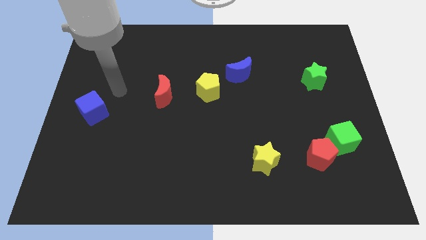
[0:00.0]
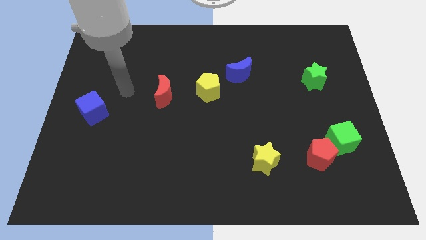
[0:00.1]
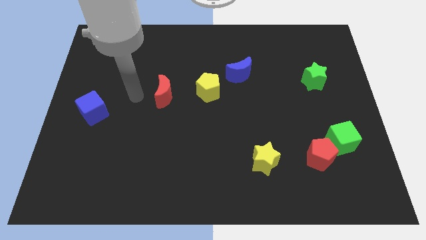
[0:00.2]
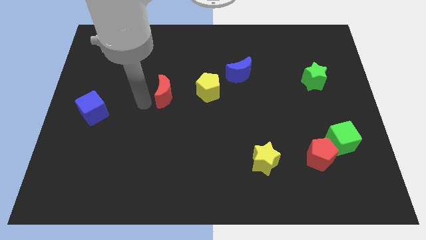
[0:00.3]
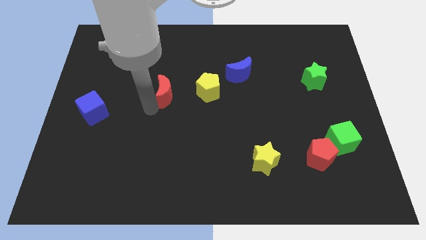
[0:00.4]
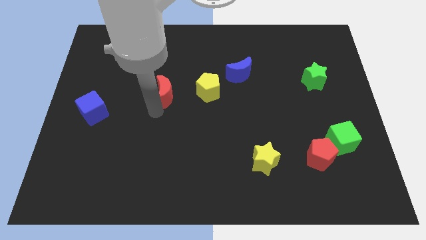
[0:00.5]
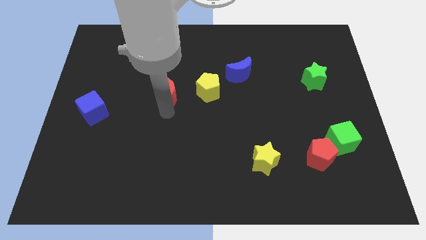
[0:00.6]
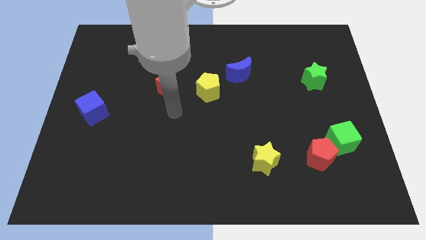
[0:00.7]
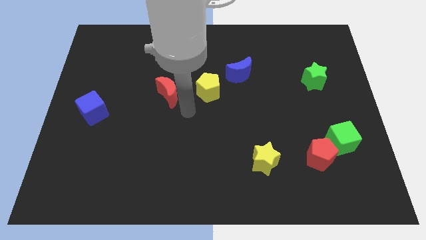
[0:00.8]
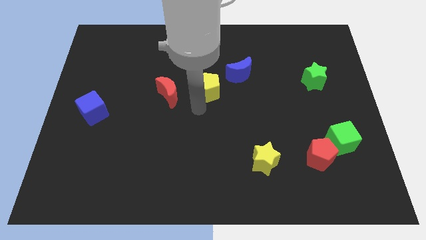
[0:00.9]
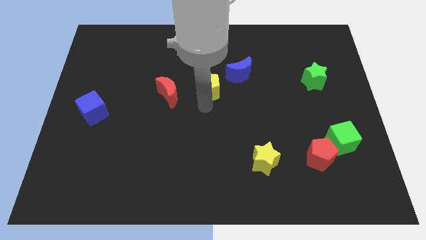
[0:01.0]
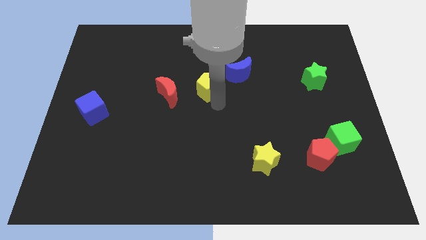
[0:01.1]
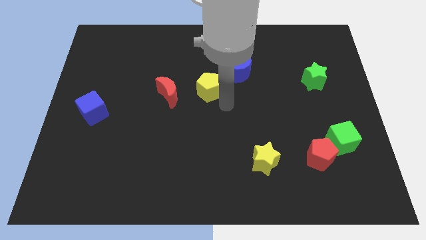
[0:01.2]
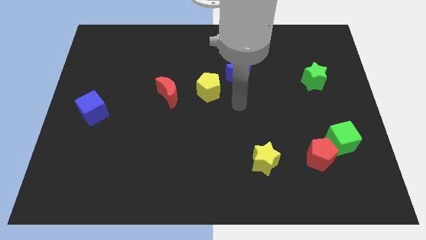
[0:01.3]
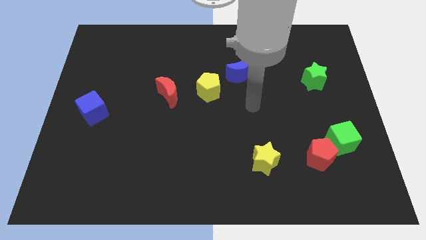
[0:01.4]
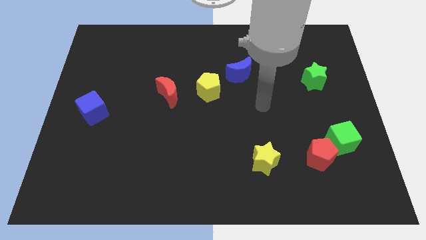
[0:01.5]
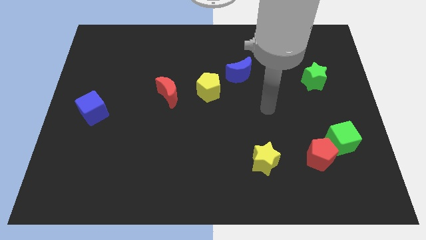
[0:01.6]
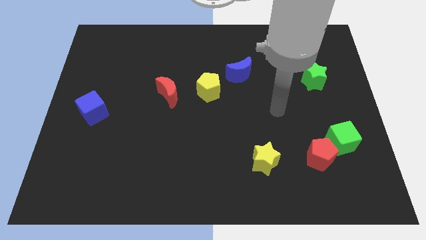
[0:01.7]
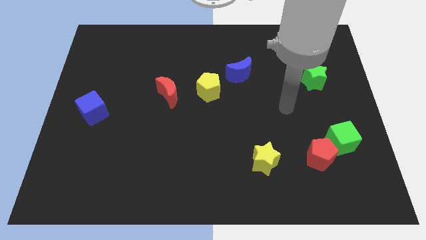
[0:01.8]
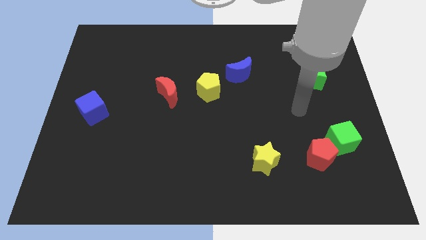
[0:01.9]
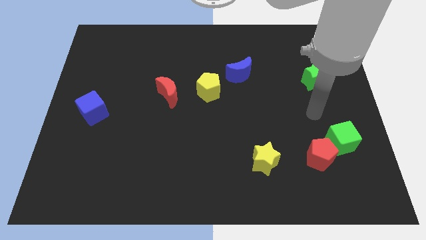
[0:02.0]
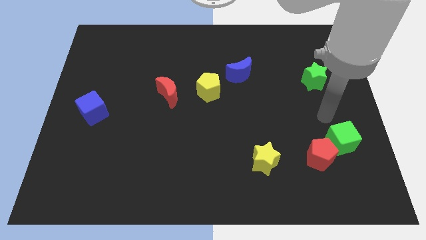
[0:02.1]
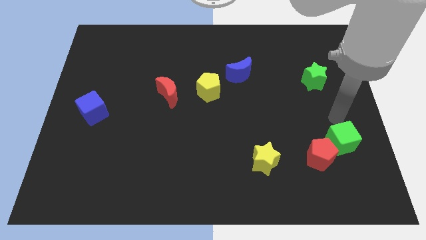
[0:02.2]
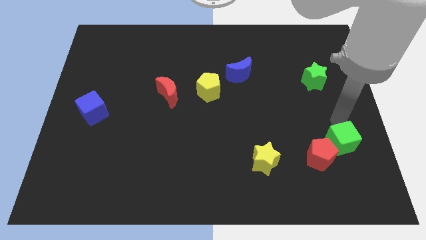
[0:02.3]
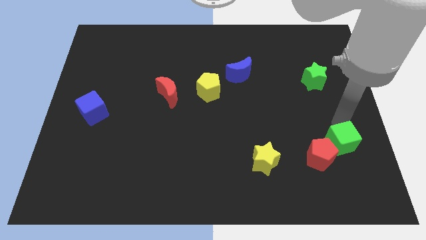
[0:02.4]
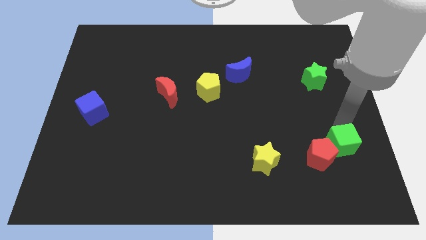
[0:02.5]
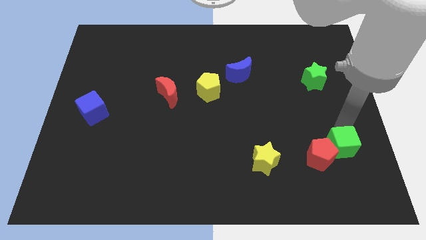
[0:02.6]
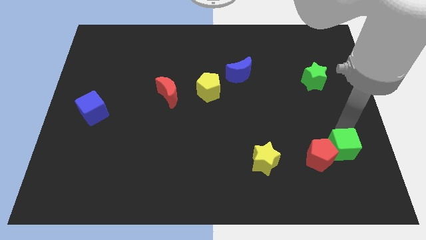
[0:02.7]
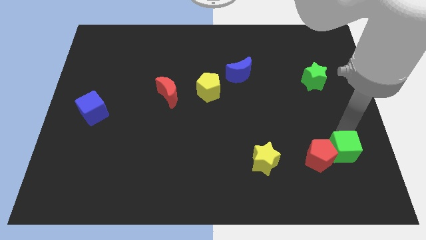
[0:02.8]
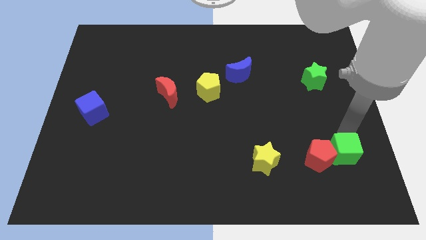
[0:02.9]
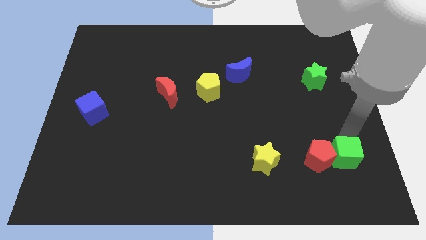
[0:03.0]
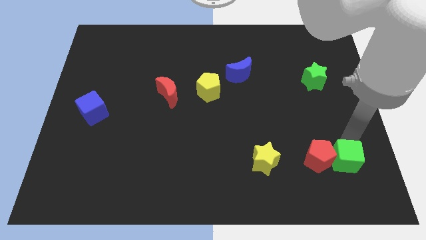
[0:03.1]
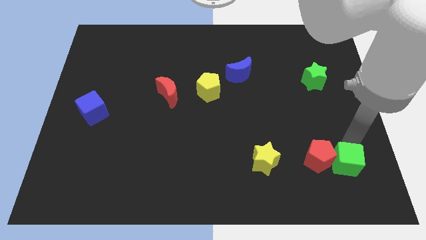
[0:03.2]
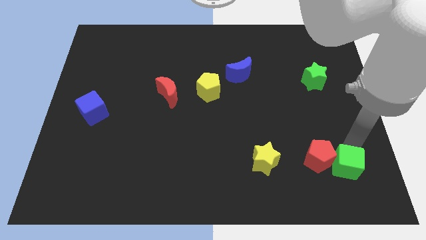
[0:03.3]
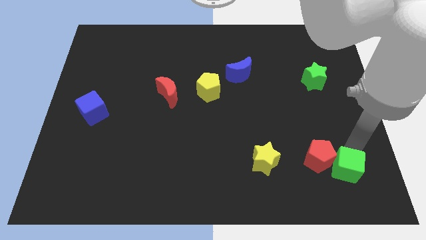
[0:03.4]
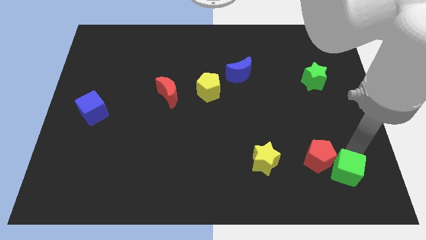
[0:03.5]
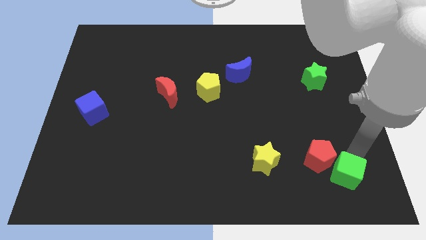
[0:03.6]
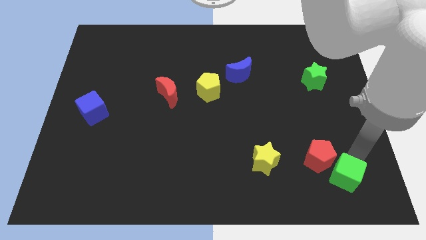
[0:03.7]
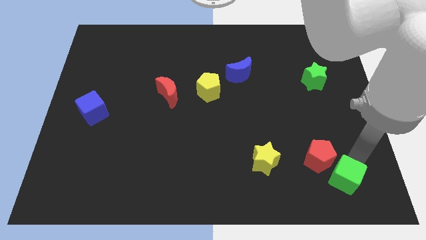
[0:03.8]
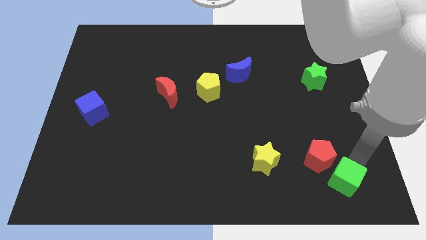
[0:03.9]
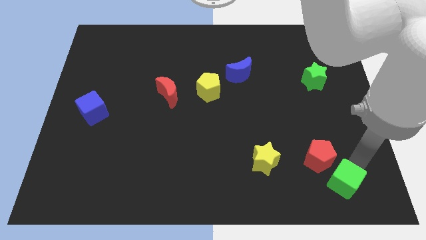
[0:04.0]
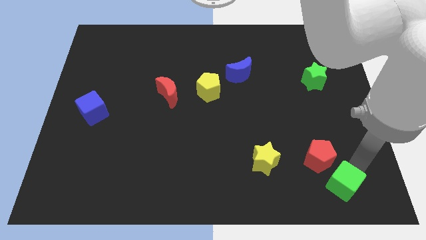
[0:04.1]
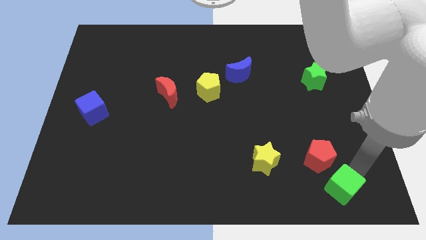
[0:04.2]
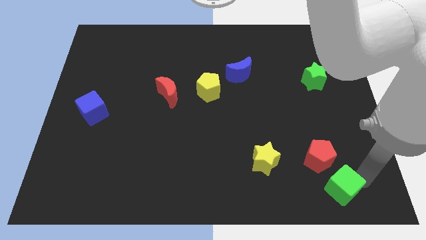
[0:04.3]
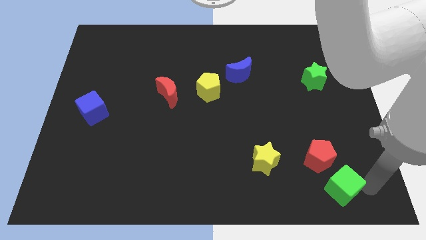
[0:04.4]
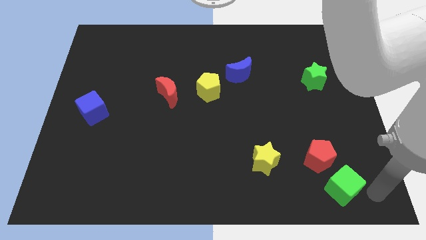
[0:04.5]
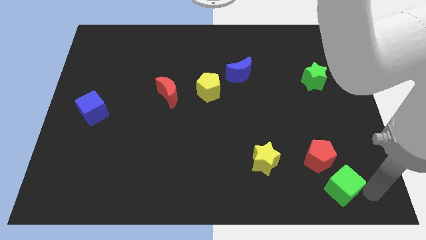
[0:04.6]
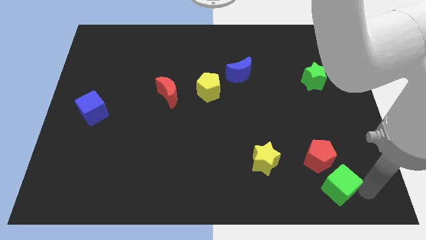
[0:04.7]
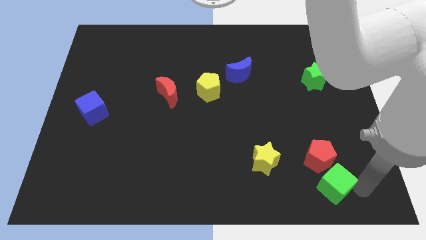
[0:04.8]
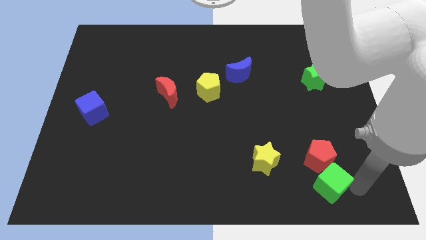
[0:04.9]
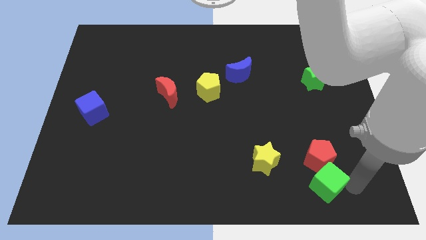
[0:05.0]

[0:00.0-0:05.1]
move the green cube to the bottom left of the red pentagon

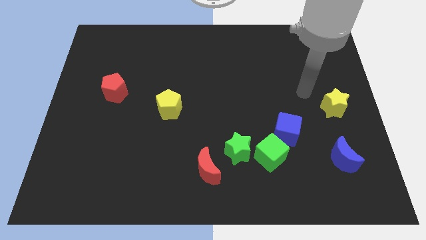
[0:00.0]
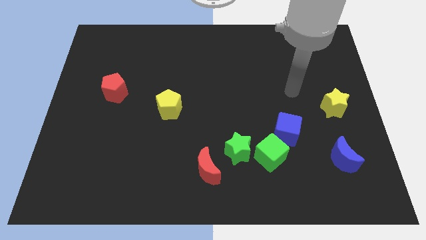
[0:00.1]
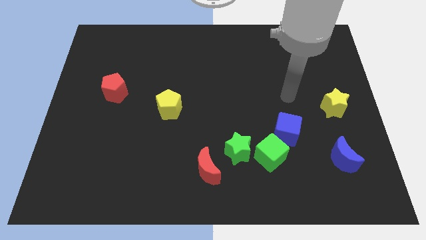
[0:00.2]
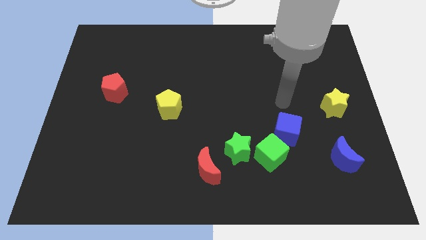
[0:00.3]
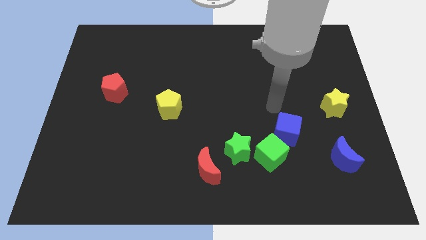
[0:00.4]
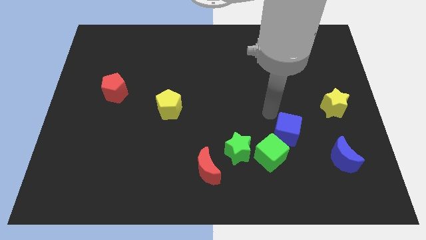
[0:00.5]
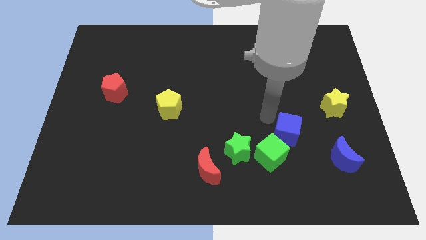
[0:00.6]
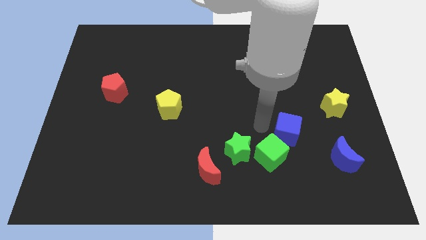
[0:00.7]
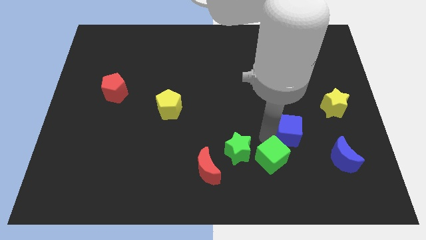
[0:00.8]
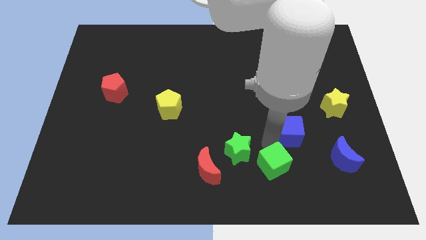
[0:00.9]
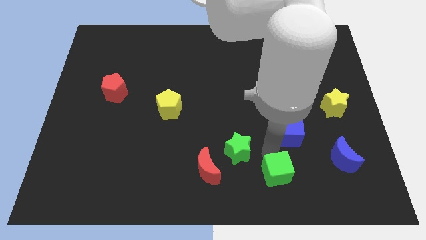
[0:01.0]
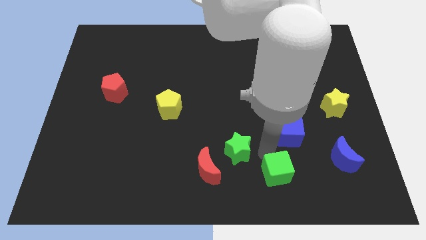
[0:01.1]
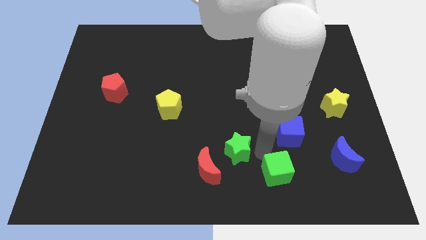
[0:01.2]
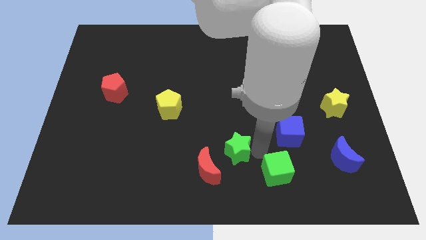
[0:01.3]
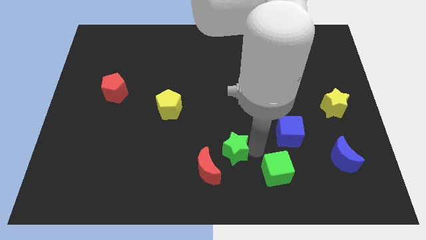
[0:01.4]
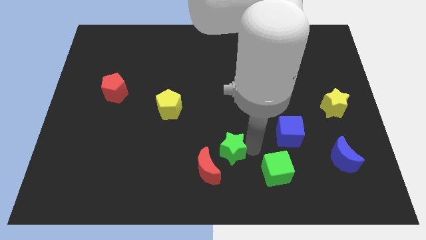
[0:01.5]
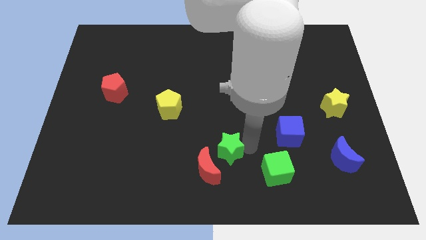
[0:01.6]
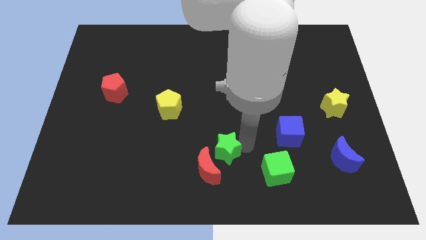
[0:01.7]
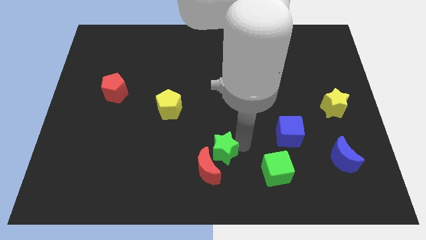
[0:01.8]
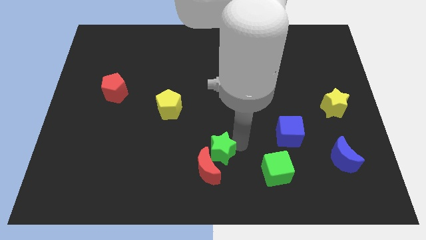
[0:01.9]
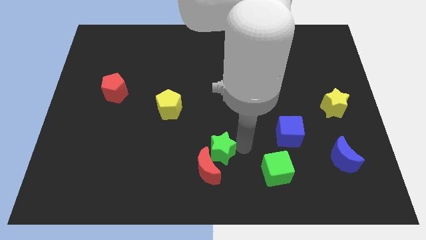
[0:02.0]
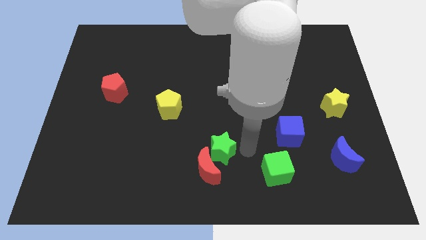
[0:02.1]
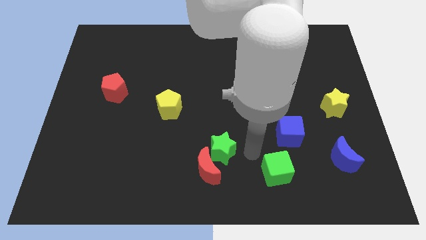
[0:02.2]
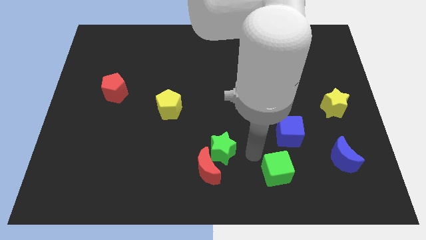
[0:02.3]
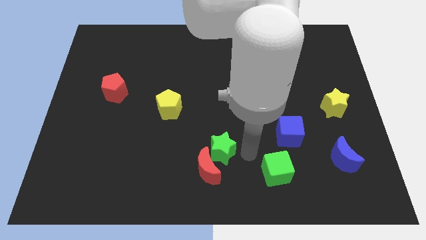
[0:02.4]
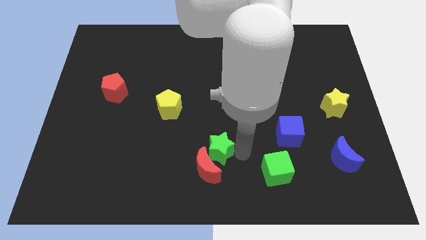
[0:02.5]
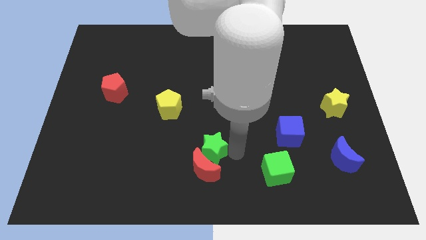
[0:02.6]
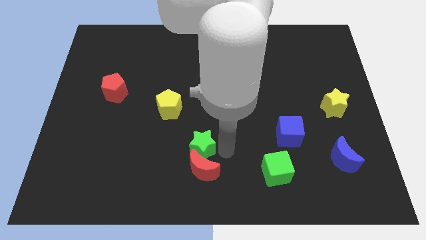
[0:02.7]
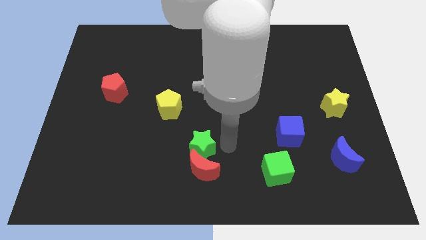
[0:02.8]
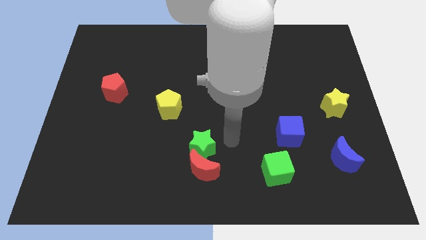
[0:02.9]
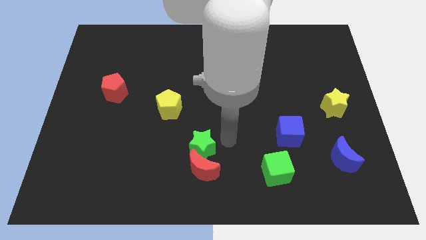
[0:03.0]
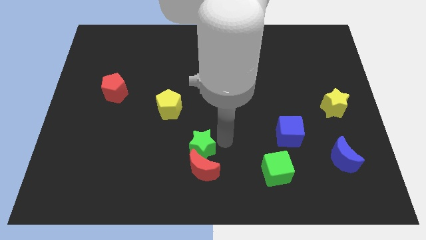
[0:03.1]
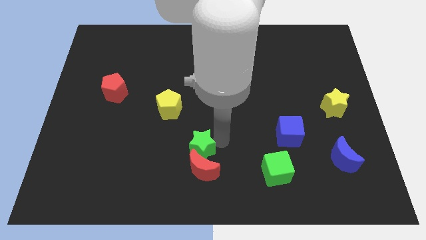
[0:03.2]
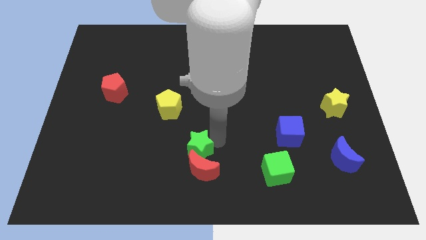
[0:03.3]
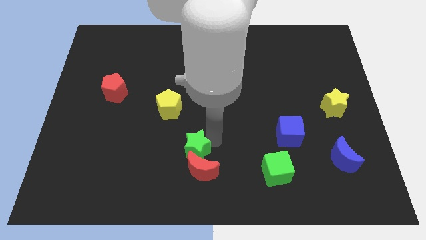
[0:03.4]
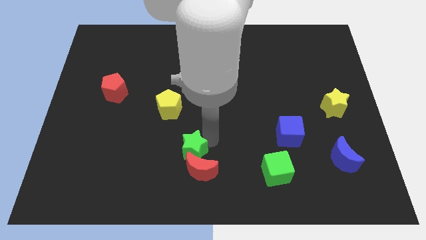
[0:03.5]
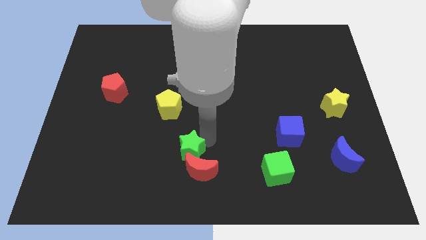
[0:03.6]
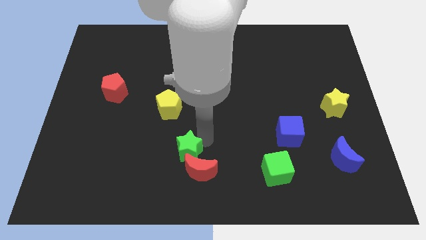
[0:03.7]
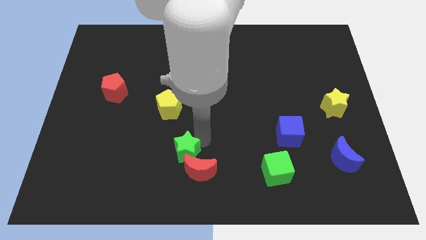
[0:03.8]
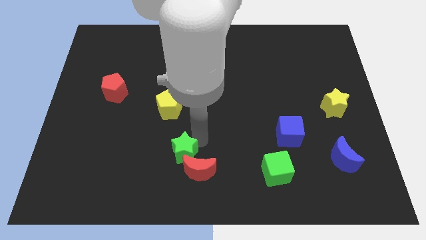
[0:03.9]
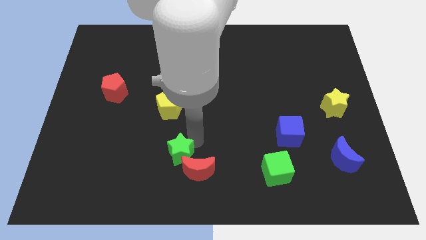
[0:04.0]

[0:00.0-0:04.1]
put the green star to the left side of the red moon
